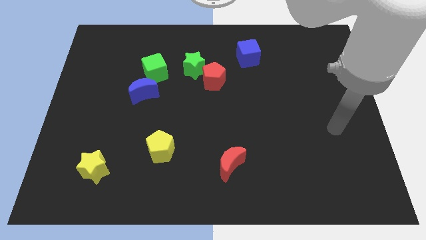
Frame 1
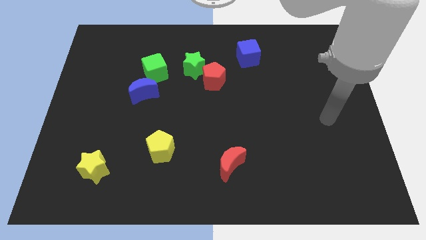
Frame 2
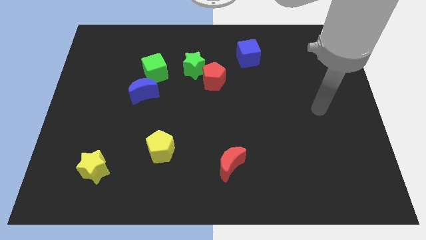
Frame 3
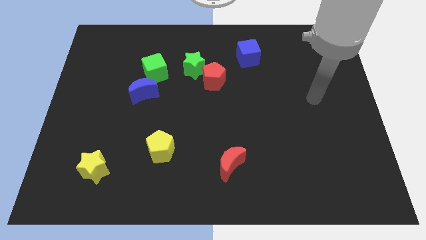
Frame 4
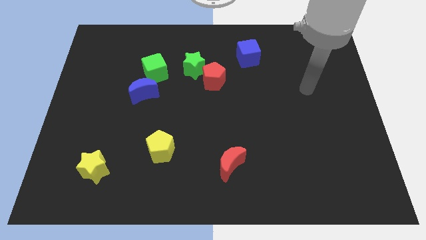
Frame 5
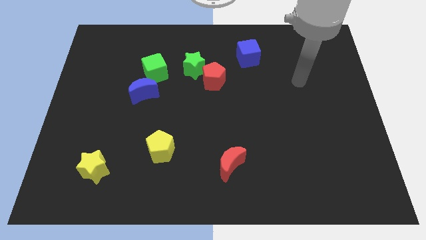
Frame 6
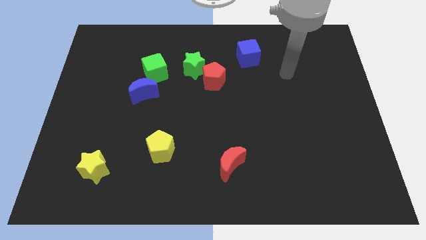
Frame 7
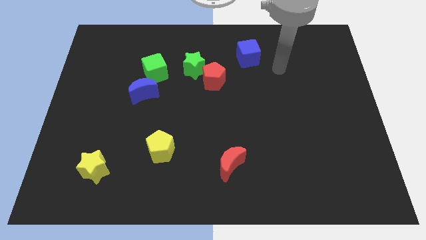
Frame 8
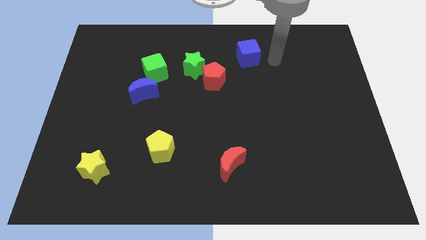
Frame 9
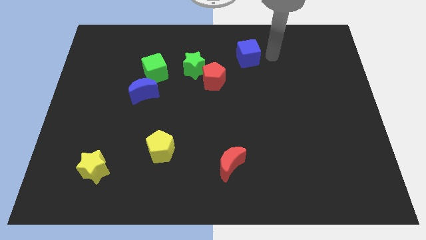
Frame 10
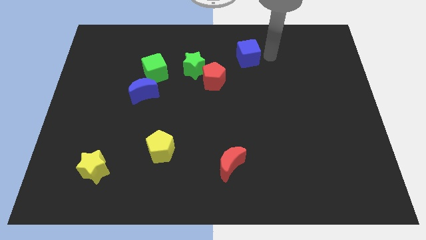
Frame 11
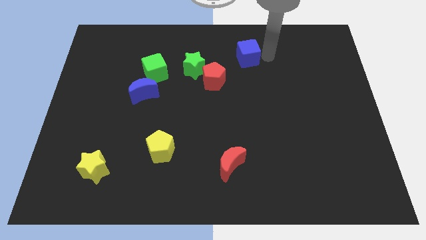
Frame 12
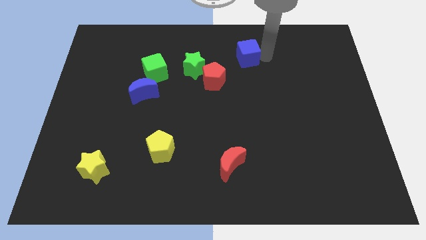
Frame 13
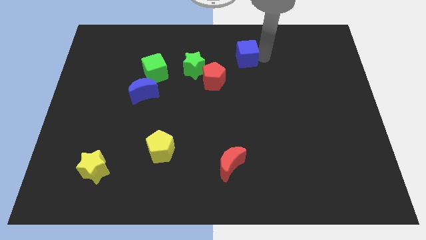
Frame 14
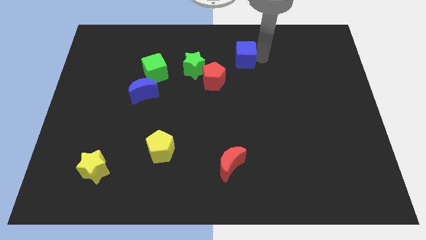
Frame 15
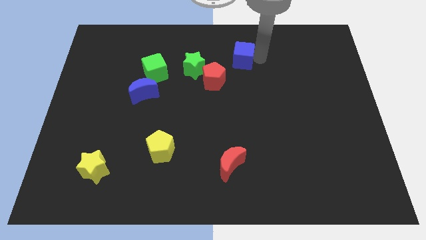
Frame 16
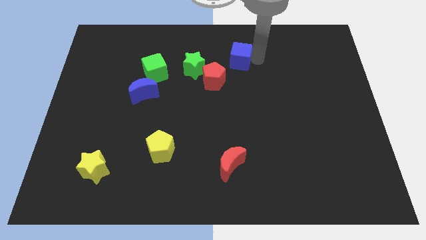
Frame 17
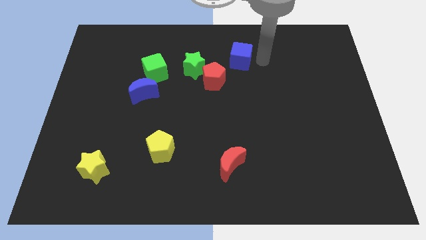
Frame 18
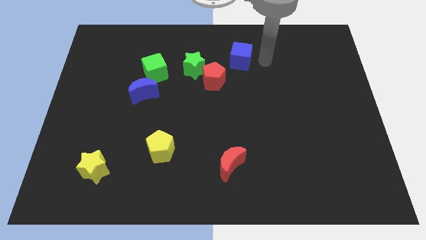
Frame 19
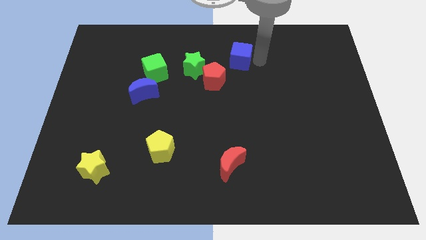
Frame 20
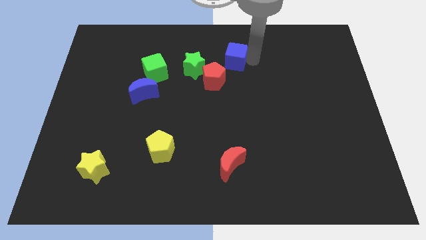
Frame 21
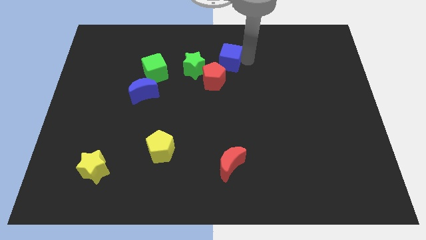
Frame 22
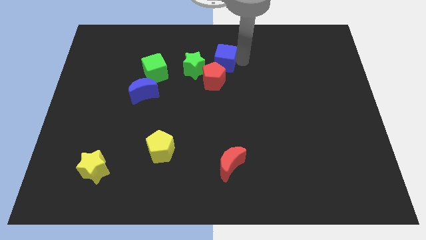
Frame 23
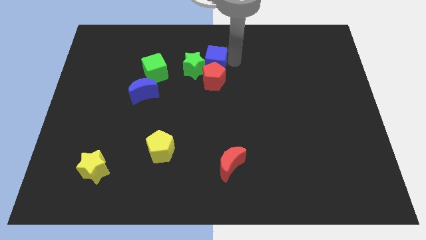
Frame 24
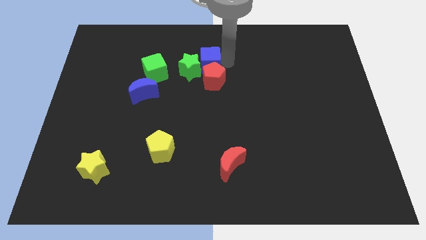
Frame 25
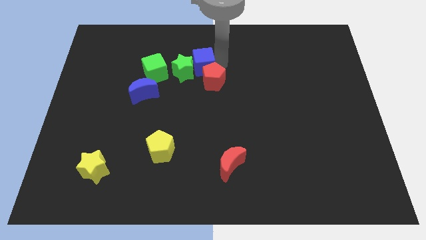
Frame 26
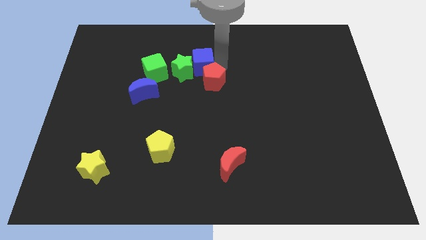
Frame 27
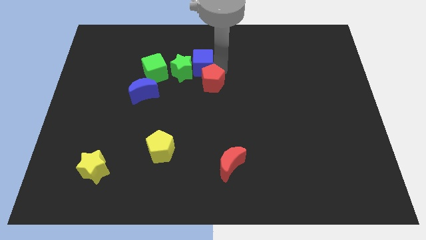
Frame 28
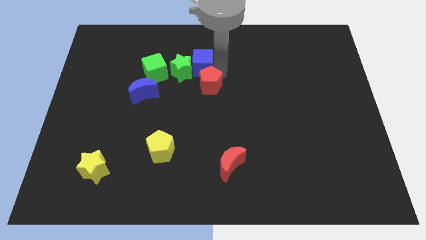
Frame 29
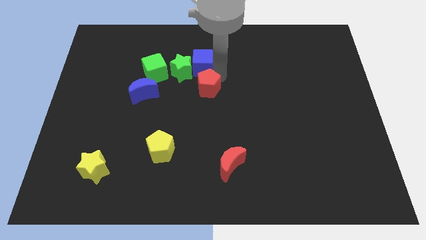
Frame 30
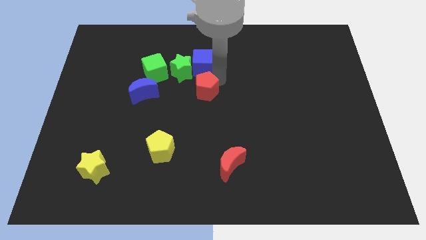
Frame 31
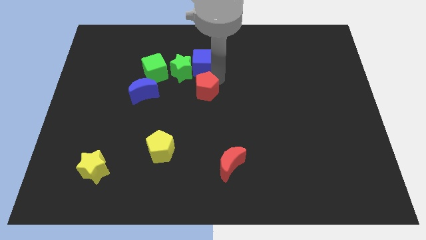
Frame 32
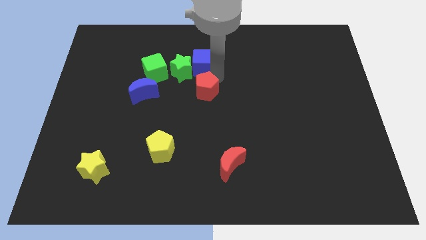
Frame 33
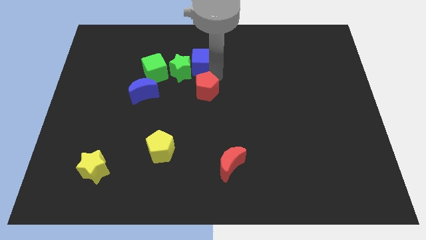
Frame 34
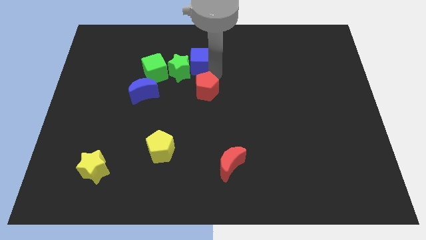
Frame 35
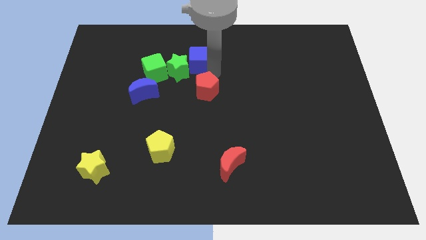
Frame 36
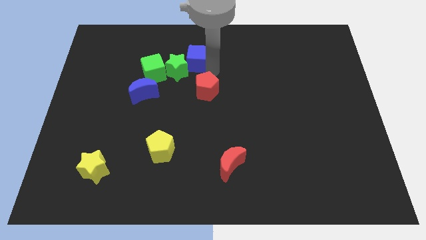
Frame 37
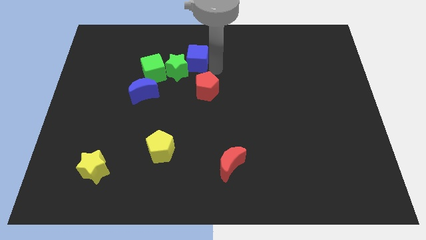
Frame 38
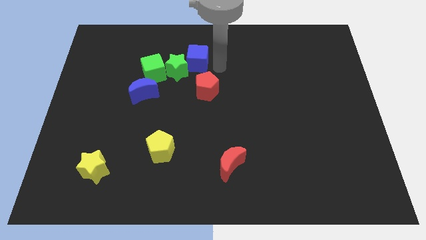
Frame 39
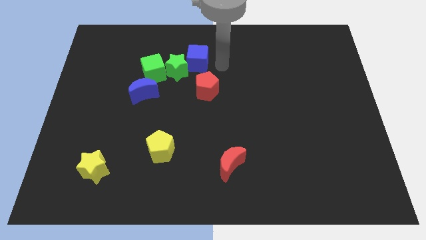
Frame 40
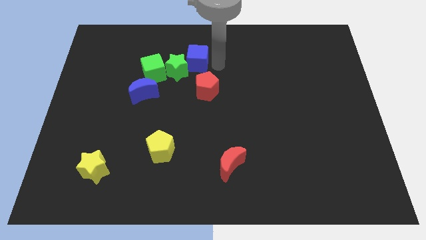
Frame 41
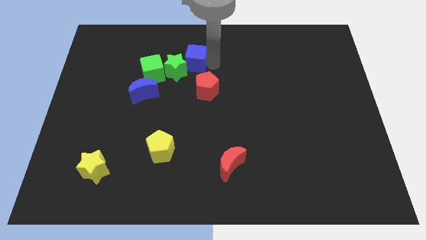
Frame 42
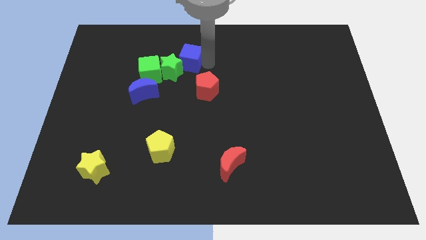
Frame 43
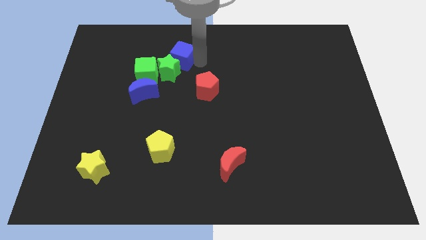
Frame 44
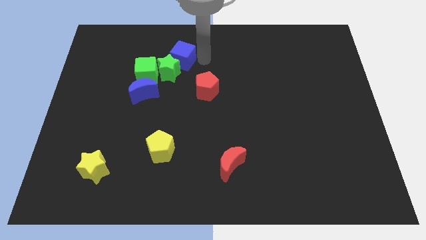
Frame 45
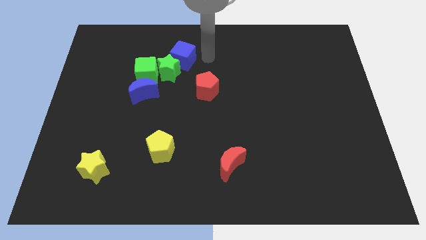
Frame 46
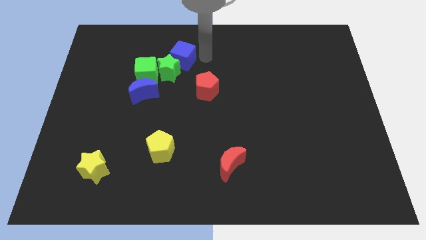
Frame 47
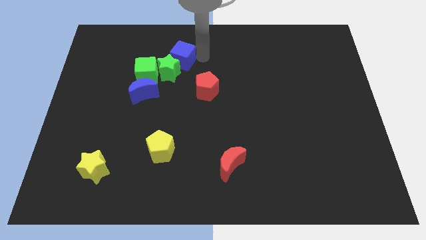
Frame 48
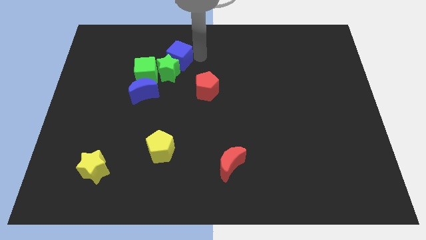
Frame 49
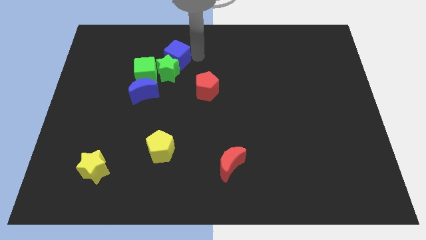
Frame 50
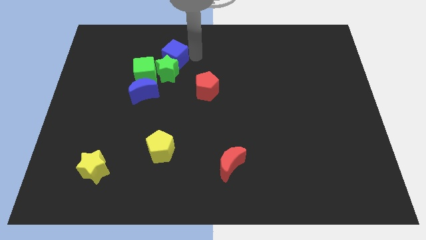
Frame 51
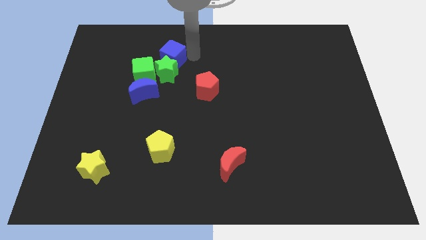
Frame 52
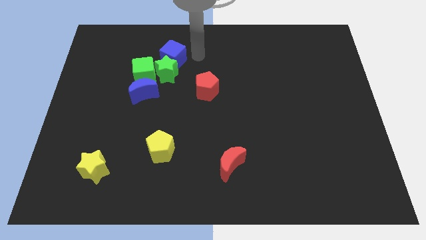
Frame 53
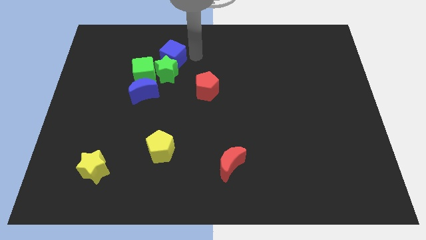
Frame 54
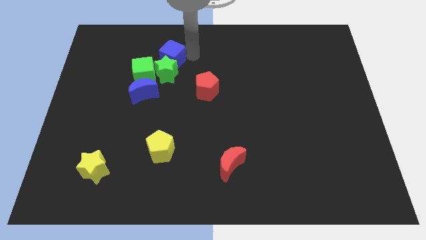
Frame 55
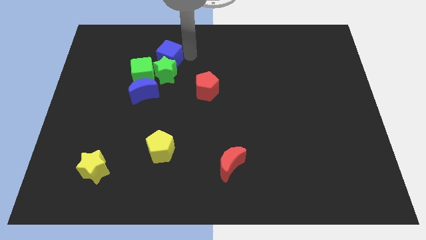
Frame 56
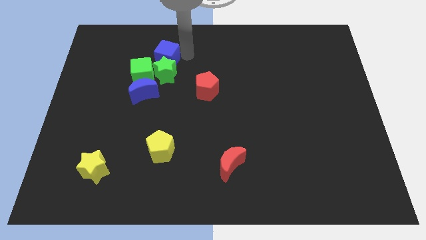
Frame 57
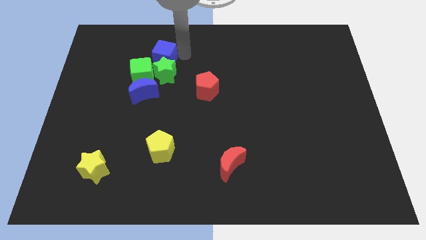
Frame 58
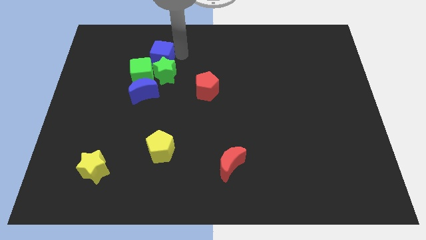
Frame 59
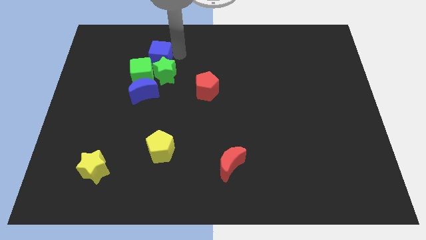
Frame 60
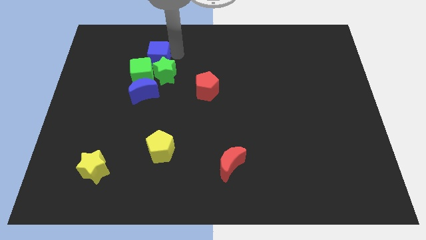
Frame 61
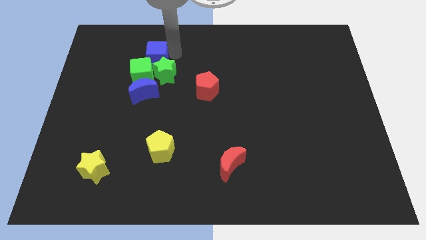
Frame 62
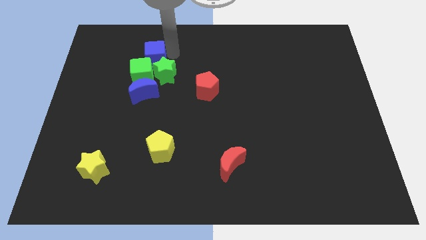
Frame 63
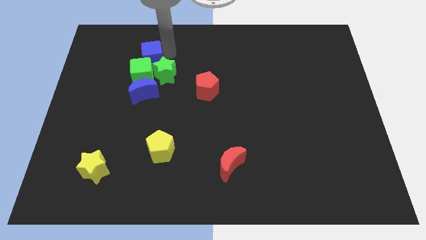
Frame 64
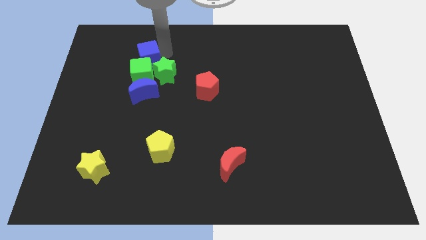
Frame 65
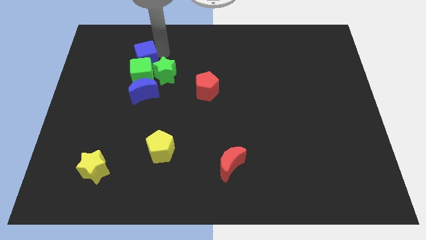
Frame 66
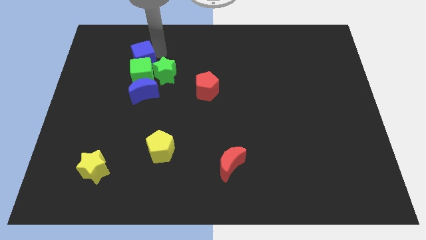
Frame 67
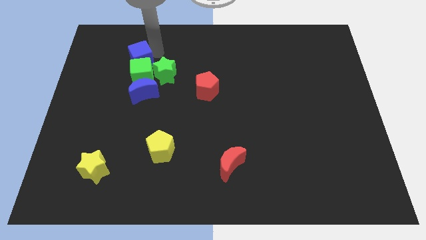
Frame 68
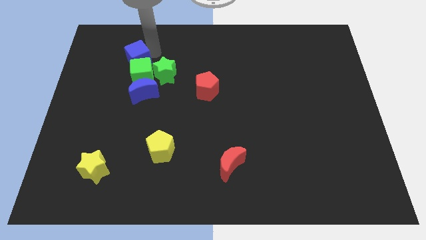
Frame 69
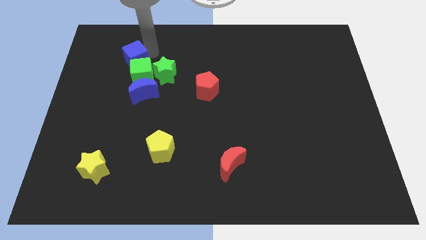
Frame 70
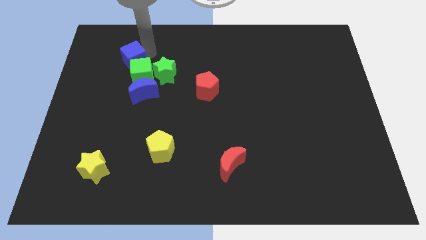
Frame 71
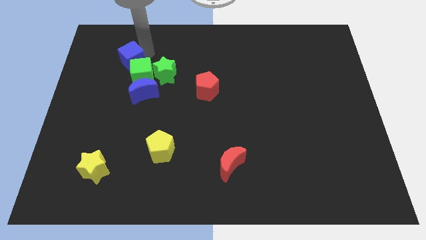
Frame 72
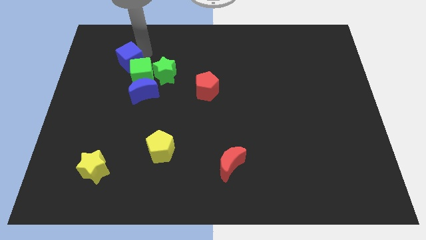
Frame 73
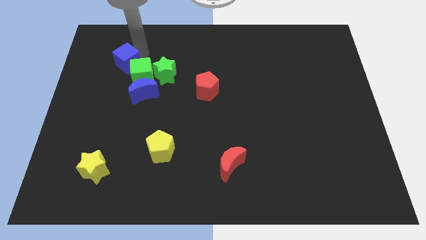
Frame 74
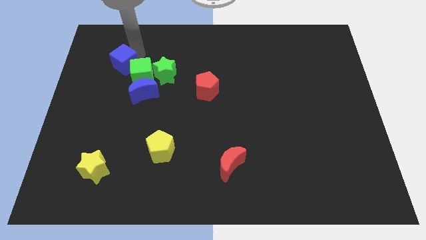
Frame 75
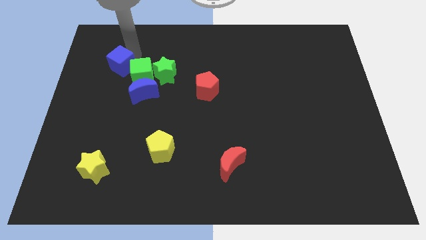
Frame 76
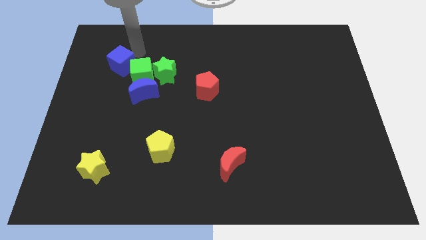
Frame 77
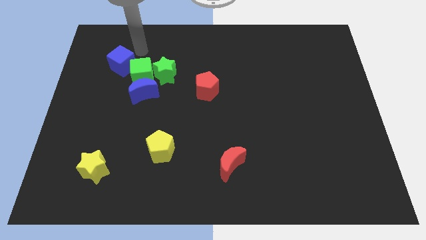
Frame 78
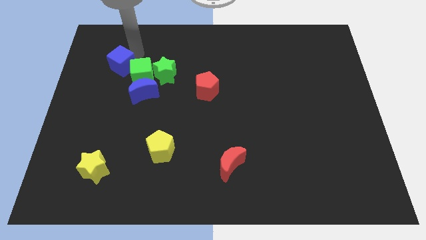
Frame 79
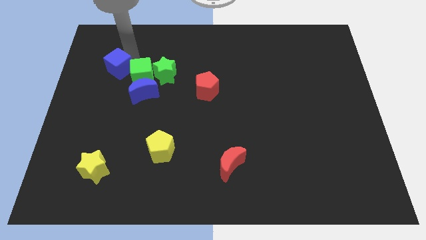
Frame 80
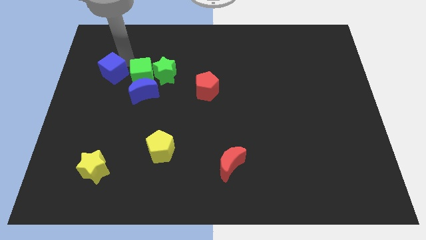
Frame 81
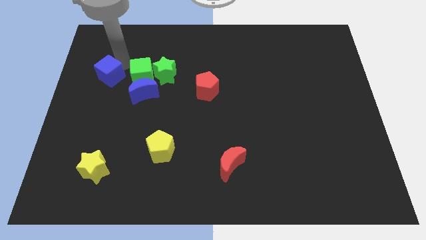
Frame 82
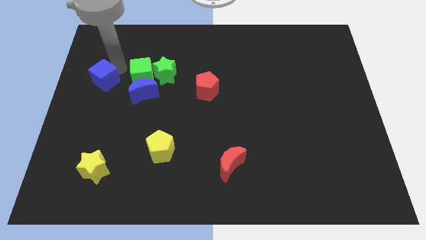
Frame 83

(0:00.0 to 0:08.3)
push the blue cube to the center left
